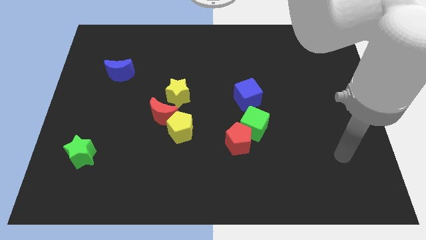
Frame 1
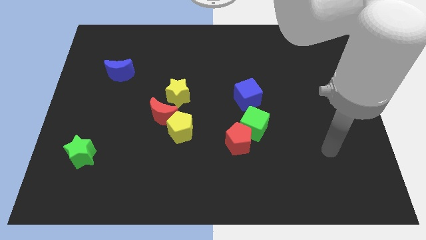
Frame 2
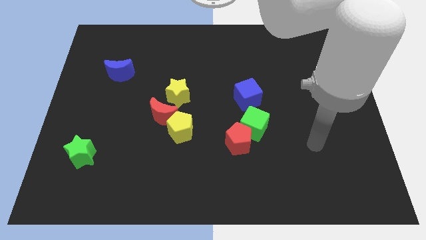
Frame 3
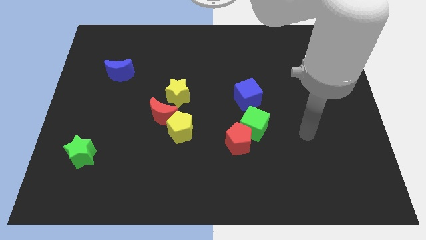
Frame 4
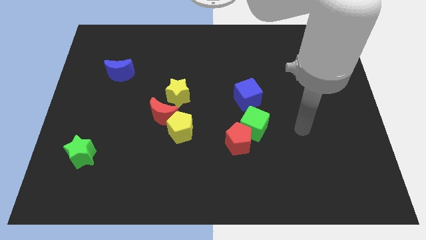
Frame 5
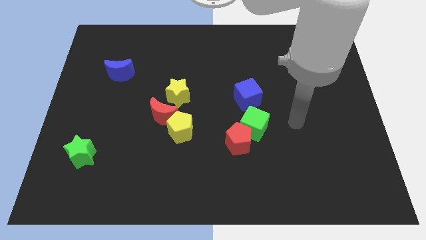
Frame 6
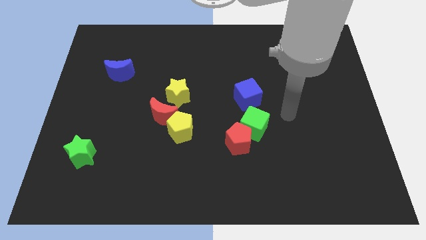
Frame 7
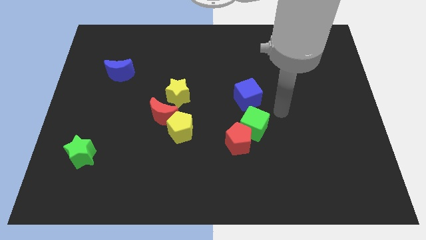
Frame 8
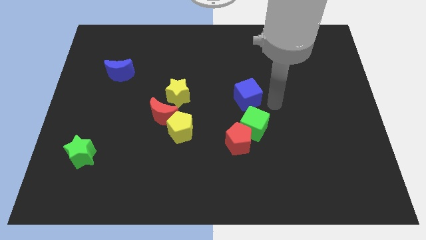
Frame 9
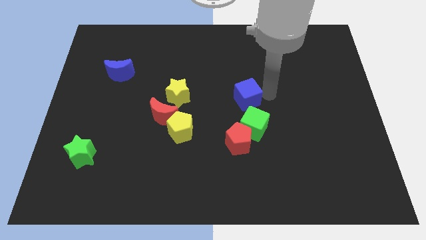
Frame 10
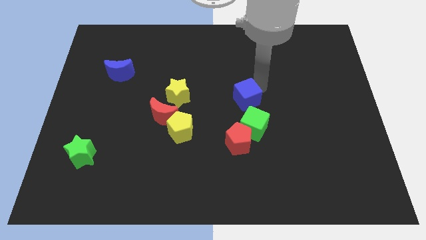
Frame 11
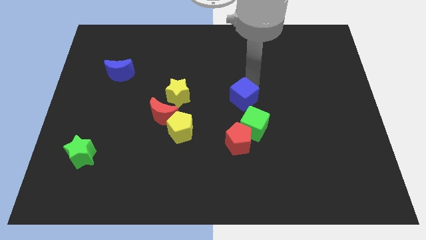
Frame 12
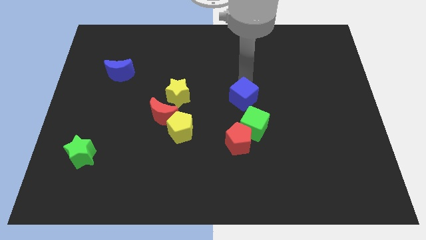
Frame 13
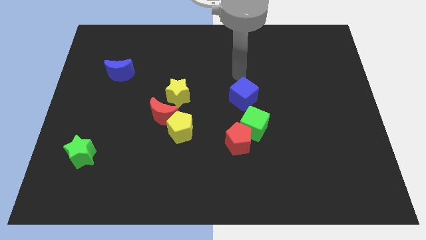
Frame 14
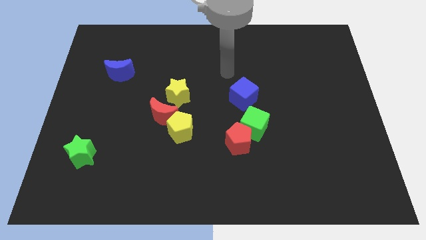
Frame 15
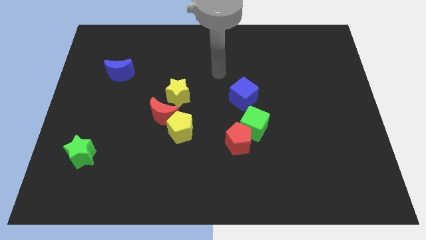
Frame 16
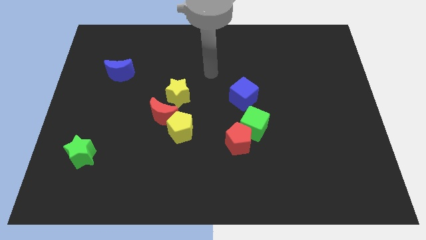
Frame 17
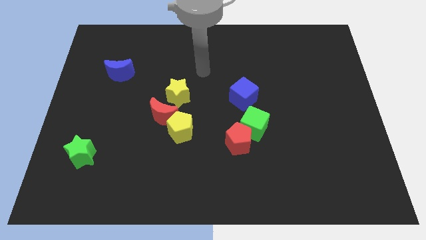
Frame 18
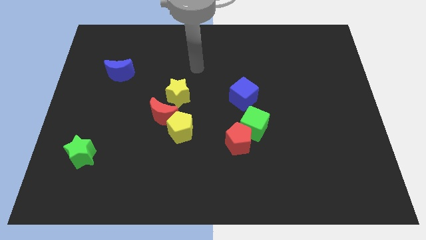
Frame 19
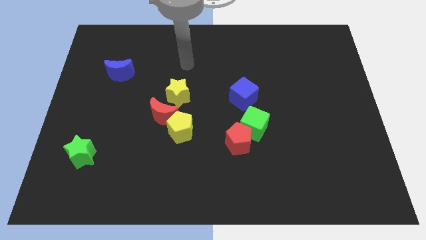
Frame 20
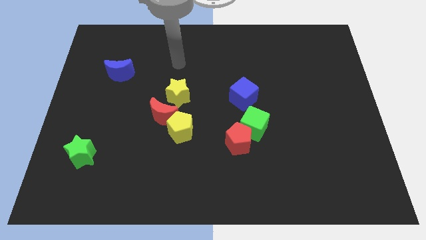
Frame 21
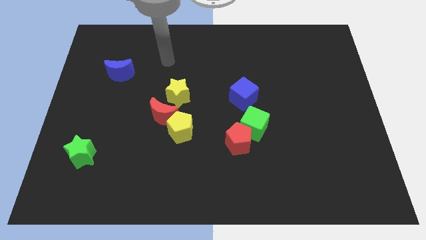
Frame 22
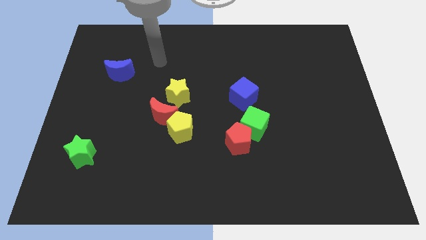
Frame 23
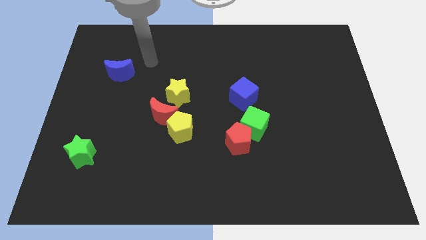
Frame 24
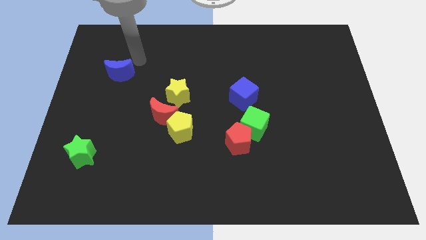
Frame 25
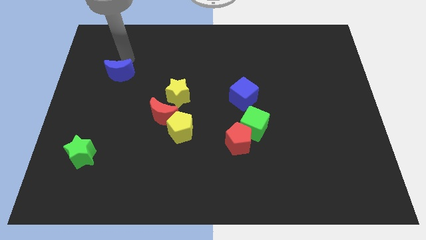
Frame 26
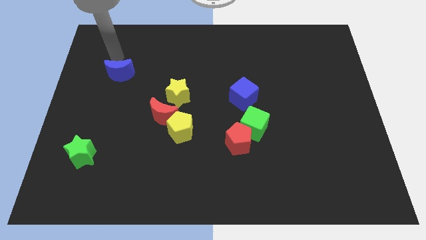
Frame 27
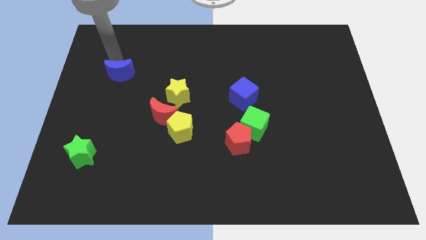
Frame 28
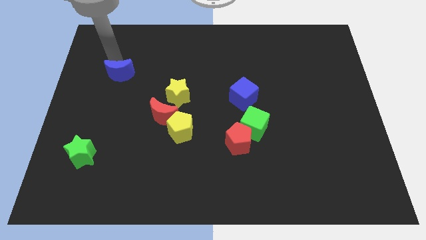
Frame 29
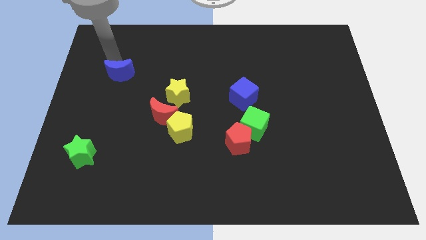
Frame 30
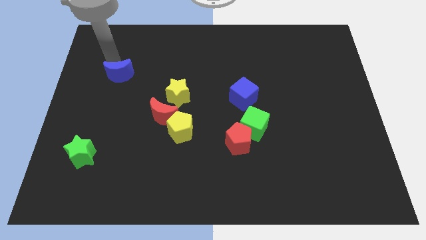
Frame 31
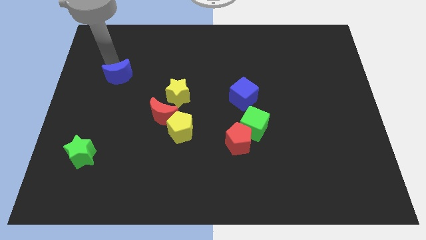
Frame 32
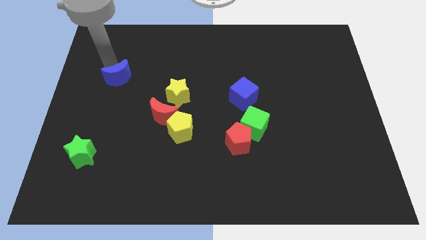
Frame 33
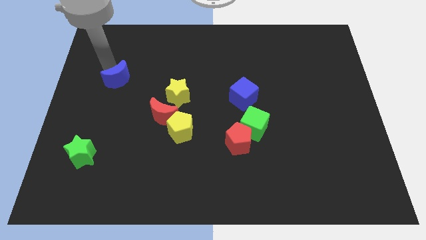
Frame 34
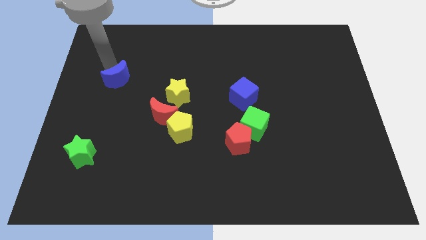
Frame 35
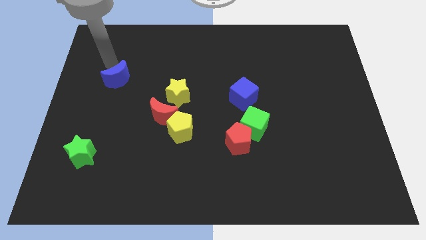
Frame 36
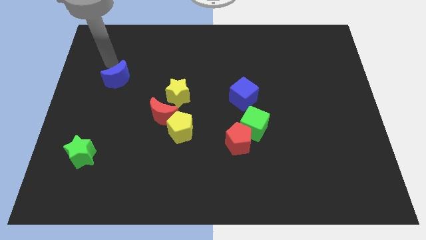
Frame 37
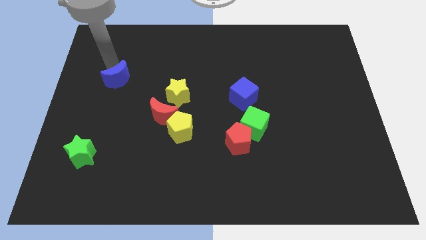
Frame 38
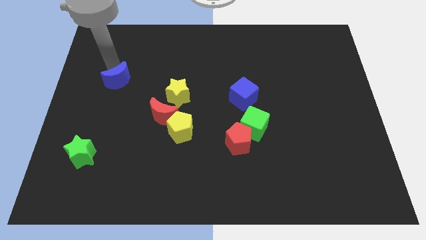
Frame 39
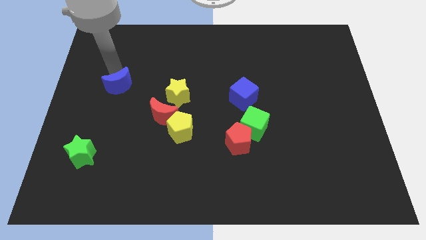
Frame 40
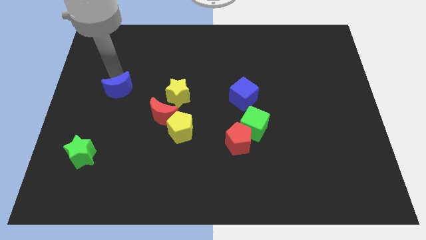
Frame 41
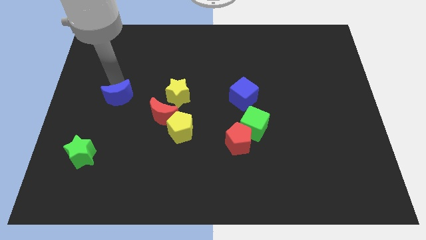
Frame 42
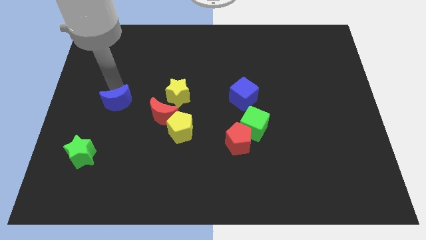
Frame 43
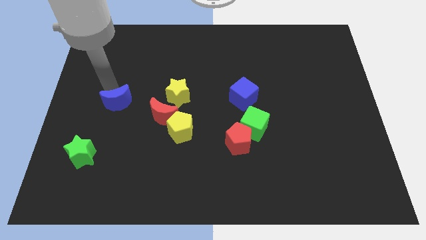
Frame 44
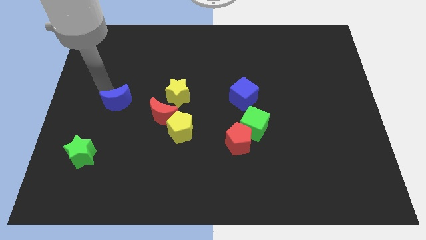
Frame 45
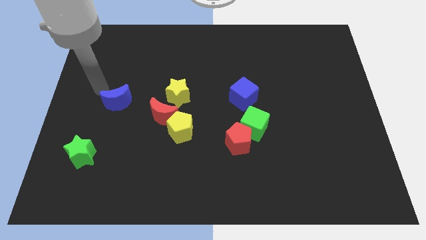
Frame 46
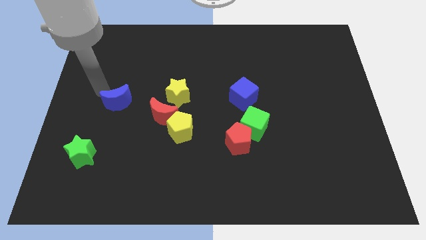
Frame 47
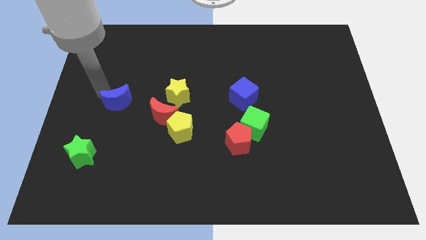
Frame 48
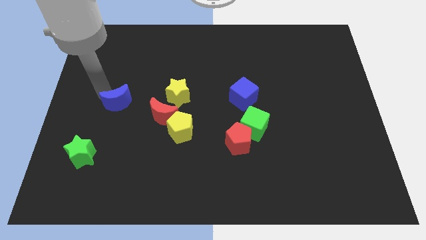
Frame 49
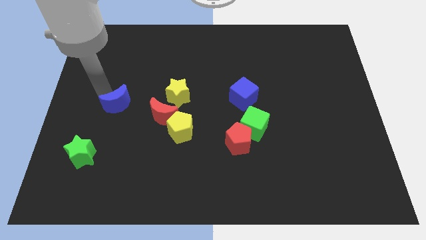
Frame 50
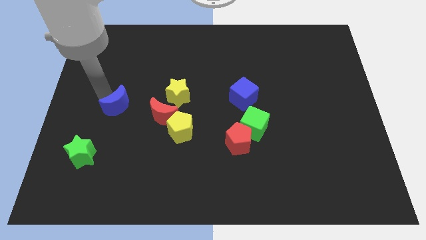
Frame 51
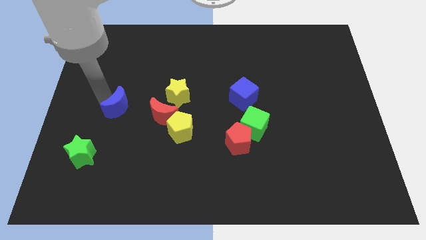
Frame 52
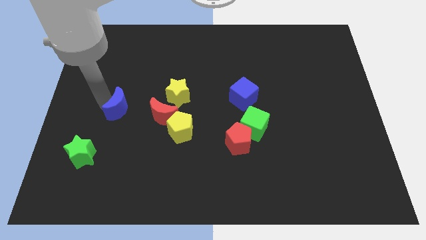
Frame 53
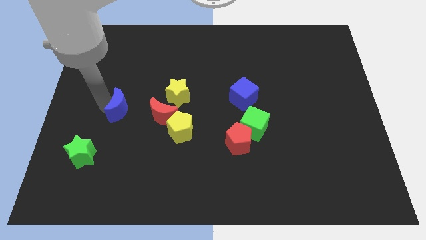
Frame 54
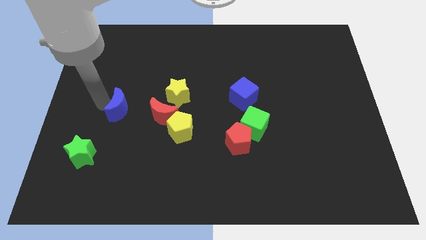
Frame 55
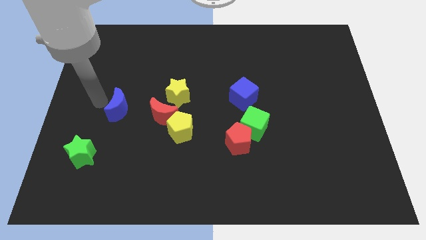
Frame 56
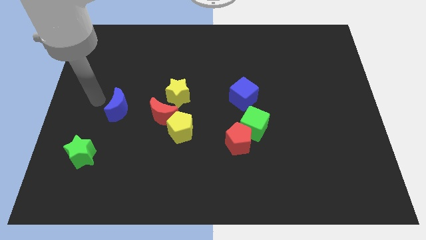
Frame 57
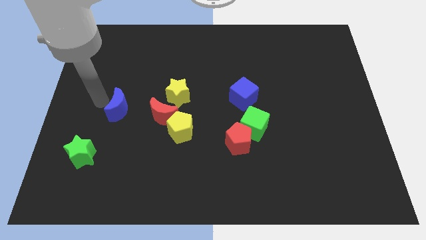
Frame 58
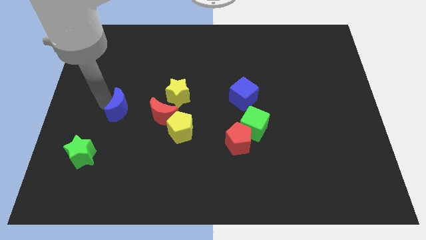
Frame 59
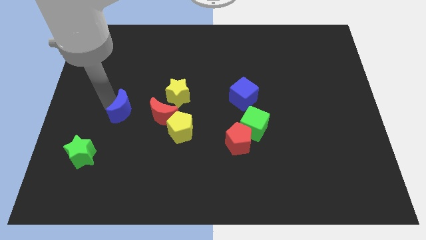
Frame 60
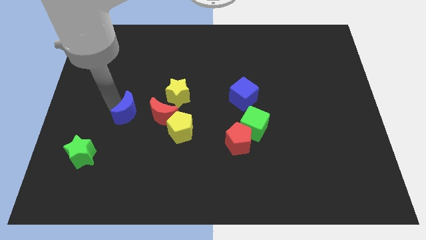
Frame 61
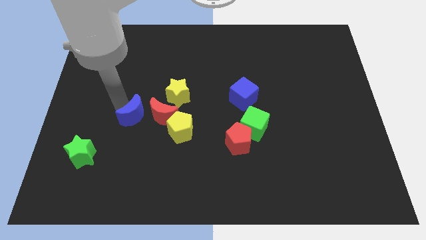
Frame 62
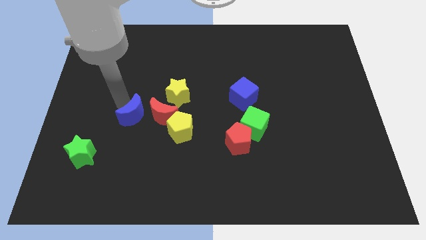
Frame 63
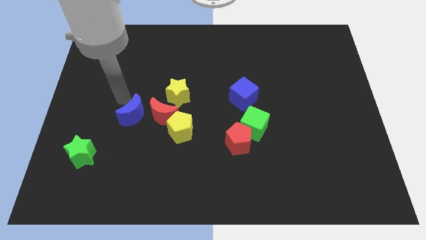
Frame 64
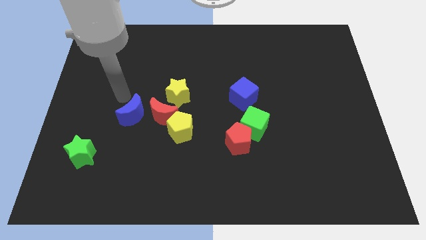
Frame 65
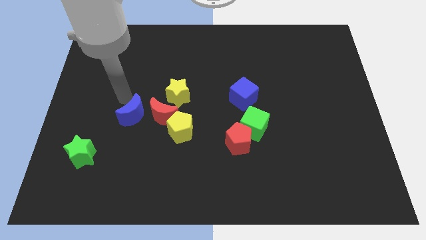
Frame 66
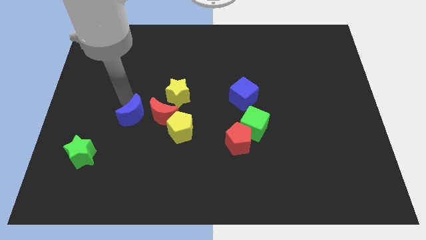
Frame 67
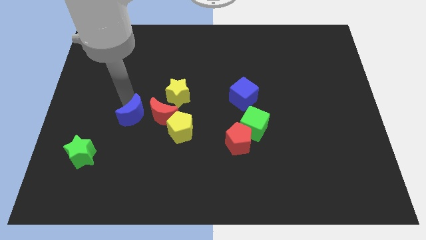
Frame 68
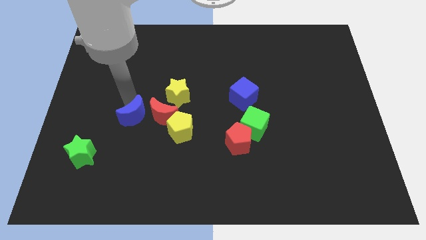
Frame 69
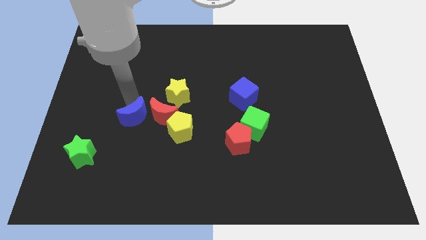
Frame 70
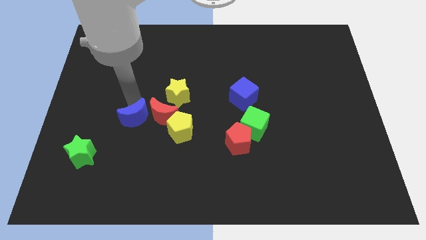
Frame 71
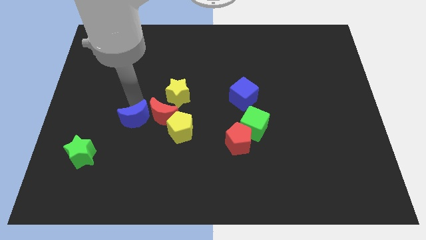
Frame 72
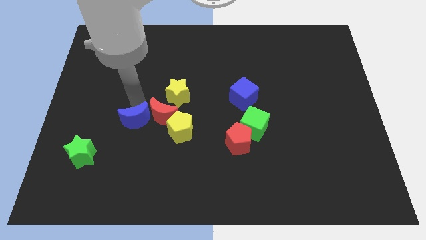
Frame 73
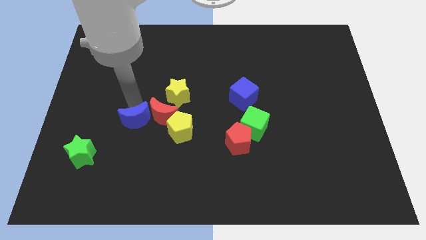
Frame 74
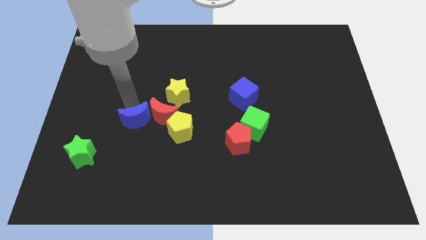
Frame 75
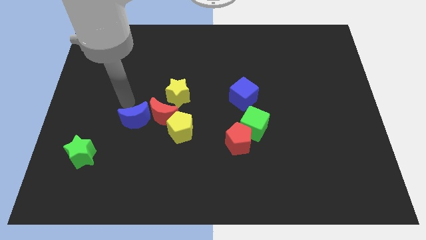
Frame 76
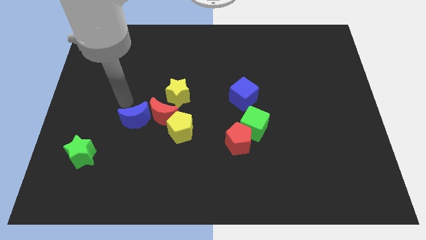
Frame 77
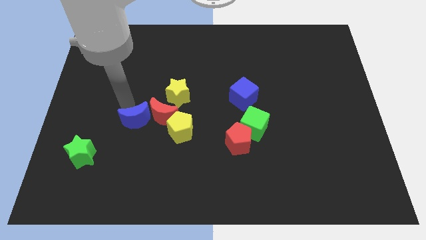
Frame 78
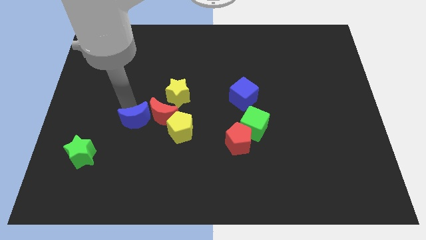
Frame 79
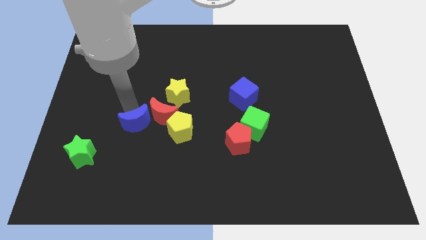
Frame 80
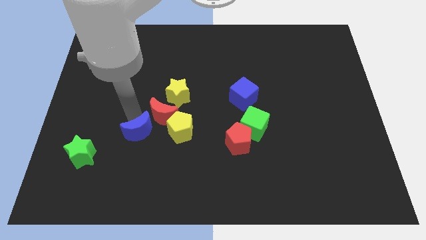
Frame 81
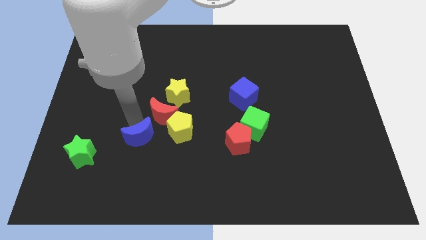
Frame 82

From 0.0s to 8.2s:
move the blue moon diagonally down and to the left of the yellow pentagon
